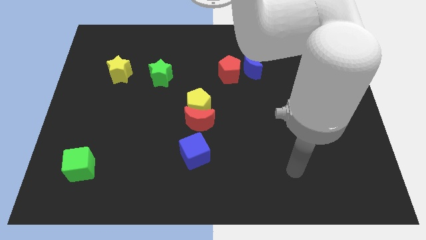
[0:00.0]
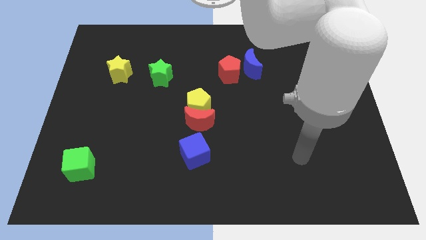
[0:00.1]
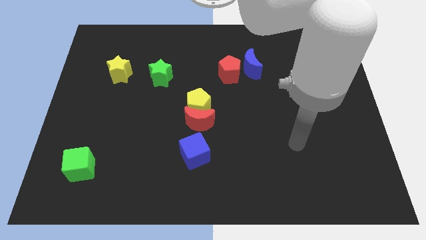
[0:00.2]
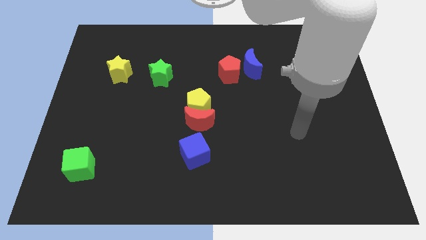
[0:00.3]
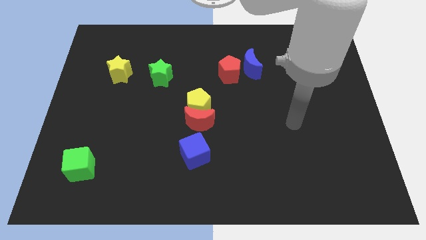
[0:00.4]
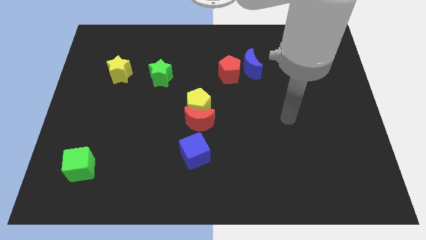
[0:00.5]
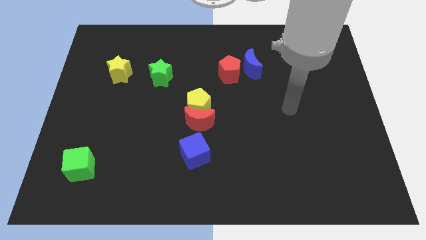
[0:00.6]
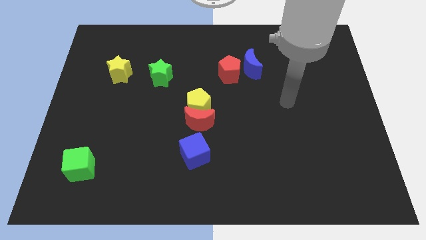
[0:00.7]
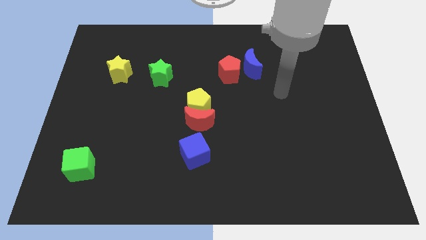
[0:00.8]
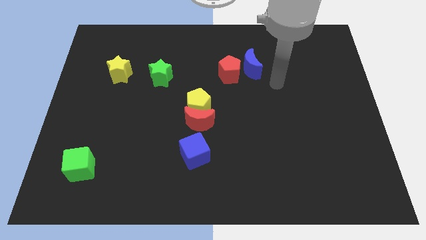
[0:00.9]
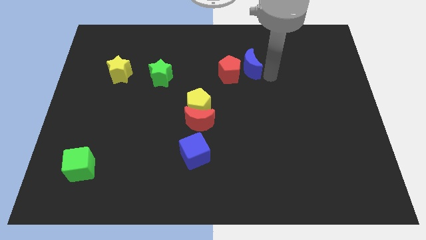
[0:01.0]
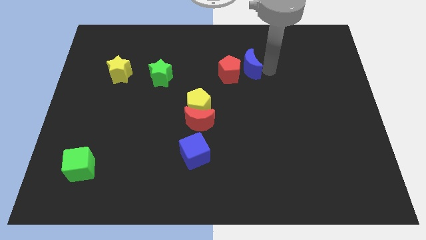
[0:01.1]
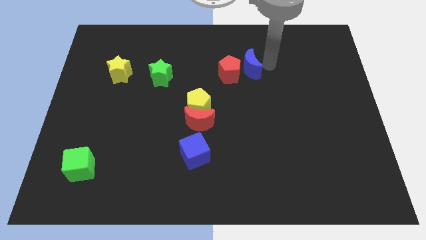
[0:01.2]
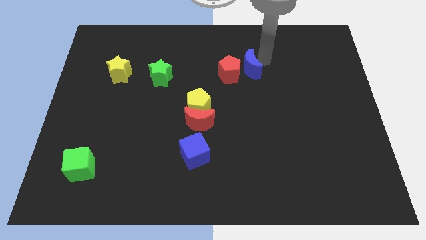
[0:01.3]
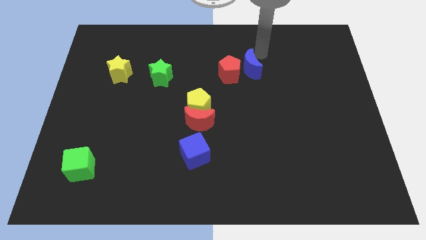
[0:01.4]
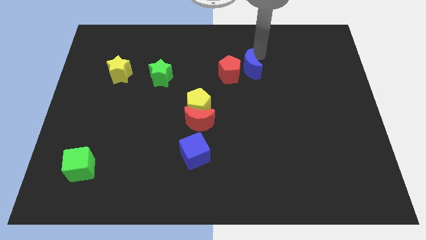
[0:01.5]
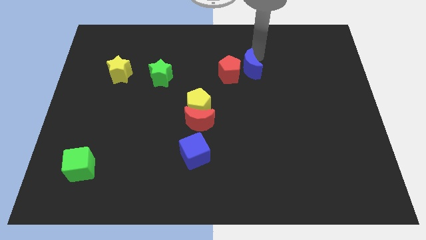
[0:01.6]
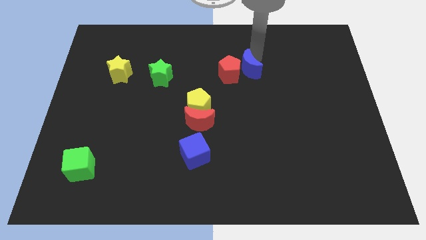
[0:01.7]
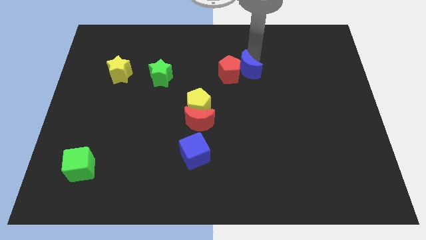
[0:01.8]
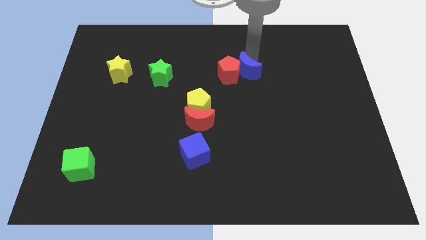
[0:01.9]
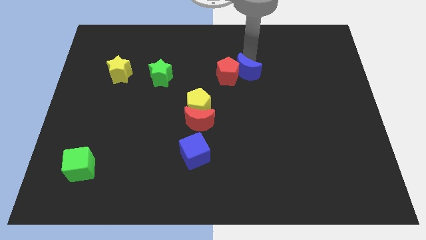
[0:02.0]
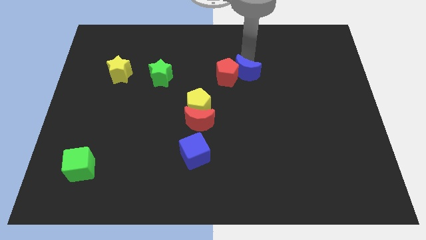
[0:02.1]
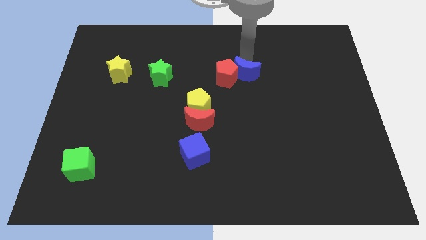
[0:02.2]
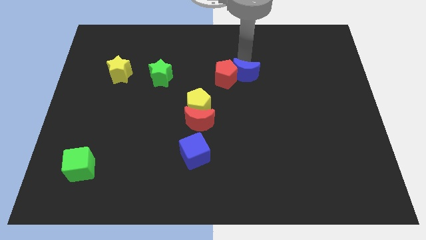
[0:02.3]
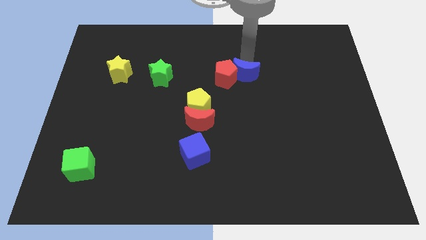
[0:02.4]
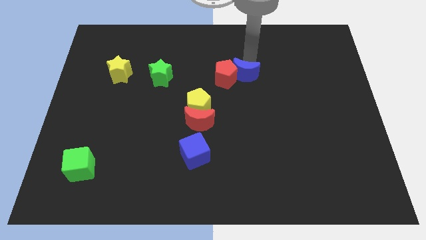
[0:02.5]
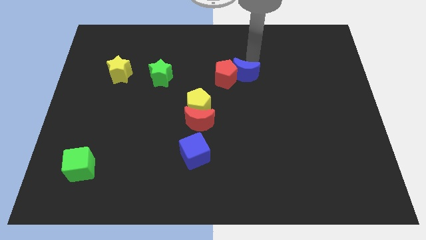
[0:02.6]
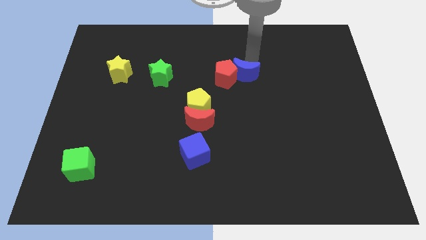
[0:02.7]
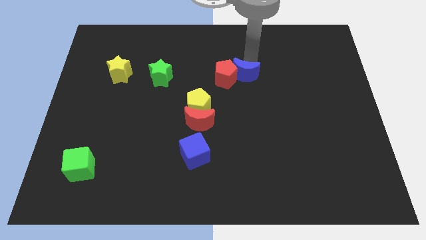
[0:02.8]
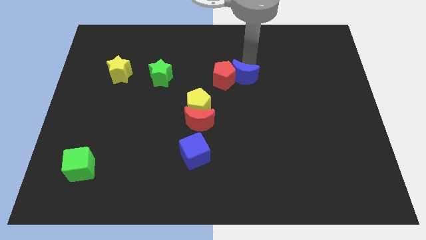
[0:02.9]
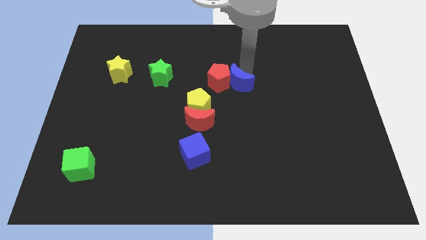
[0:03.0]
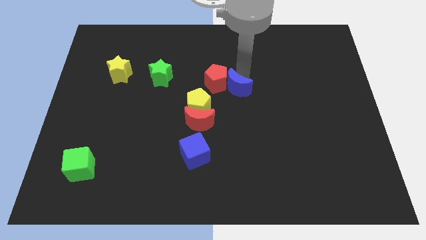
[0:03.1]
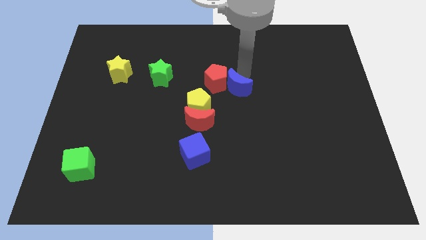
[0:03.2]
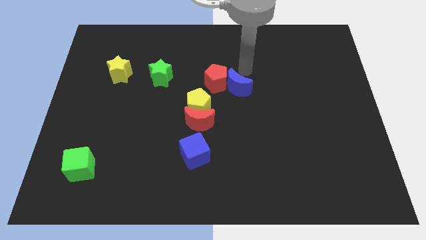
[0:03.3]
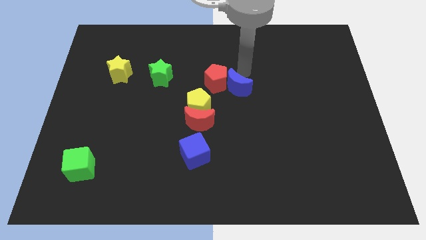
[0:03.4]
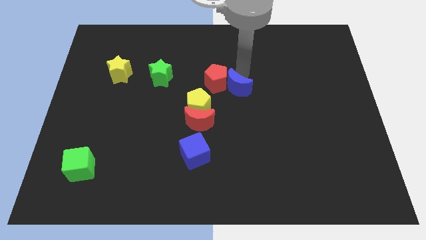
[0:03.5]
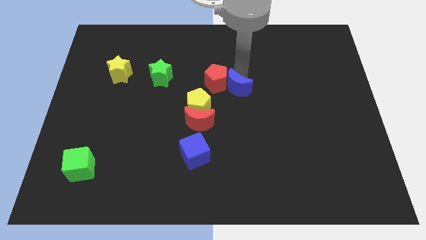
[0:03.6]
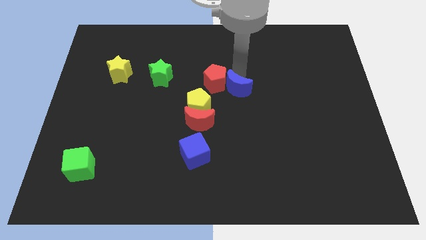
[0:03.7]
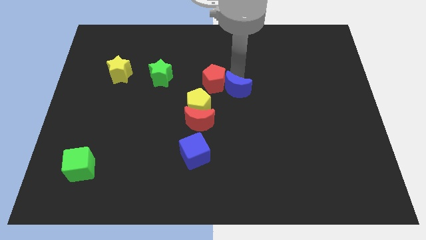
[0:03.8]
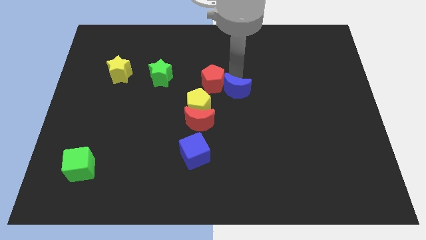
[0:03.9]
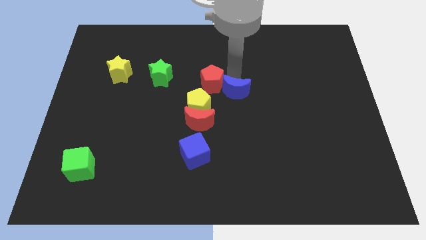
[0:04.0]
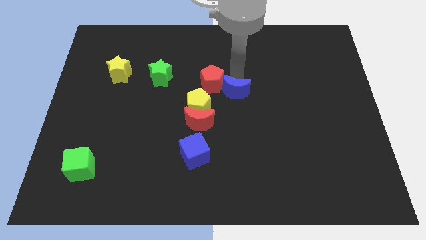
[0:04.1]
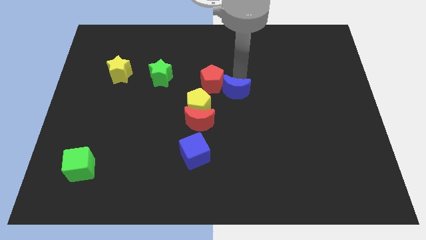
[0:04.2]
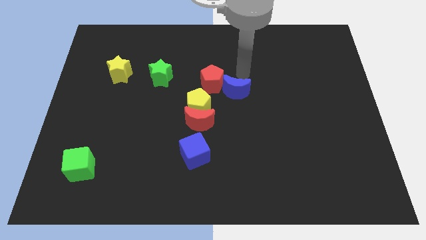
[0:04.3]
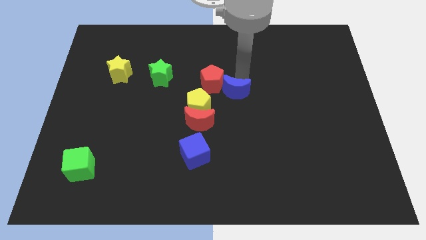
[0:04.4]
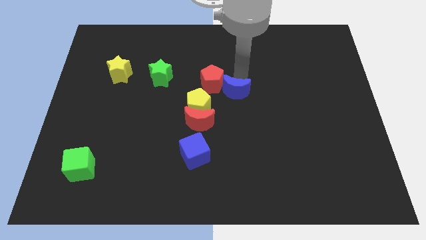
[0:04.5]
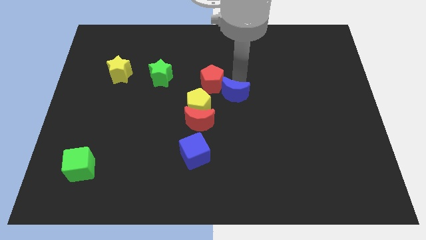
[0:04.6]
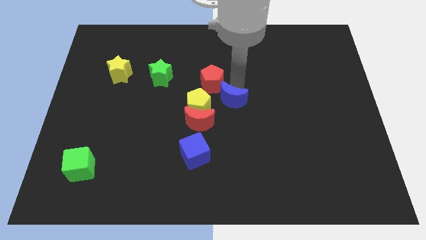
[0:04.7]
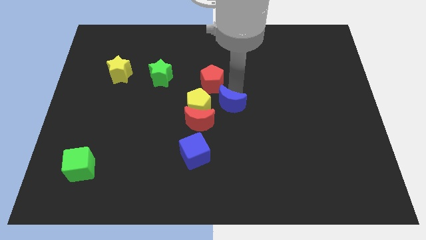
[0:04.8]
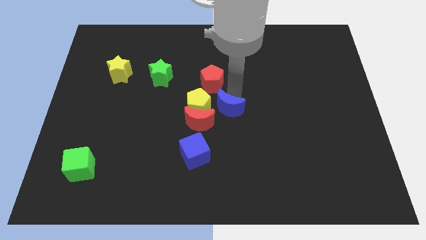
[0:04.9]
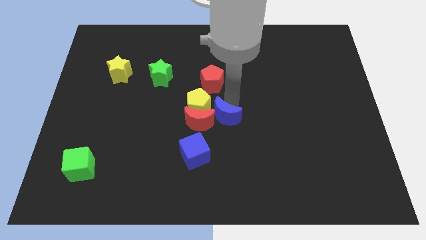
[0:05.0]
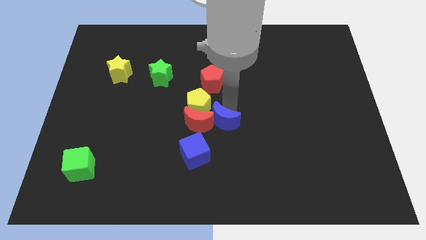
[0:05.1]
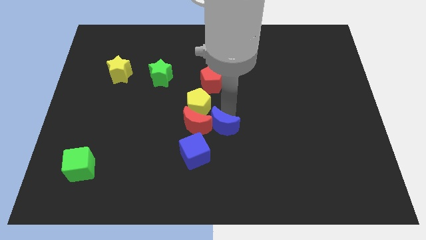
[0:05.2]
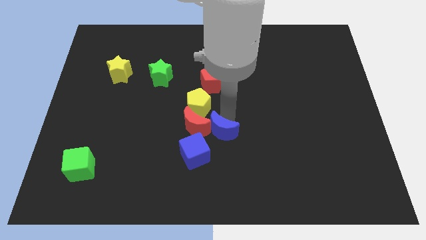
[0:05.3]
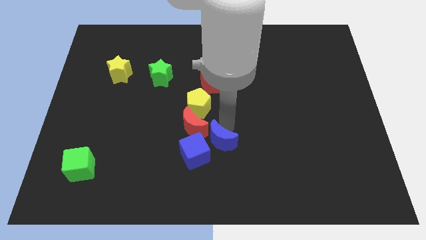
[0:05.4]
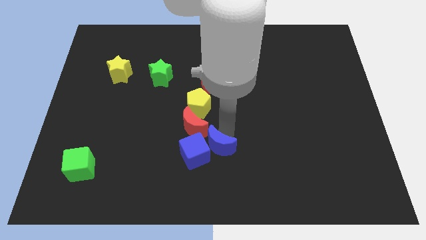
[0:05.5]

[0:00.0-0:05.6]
push the blue moon to the blue cube

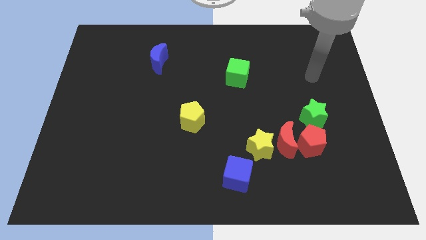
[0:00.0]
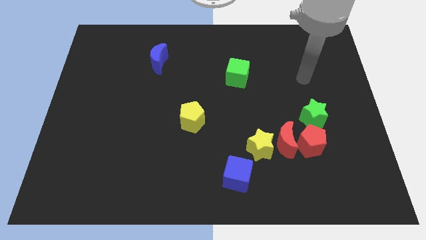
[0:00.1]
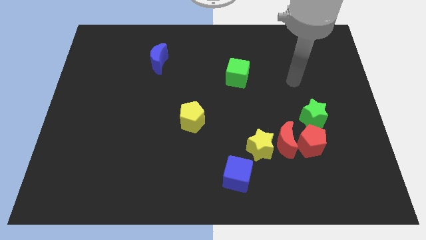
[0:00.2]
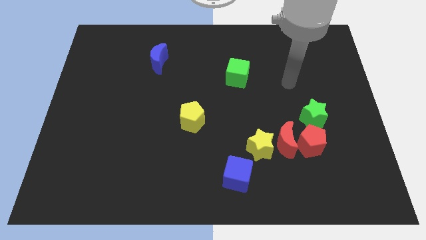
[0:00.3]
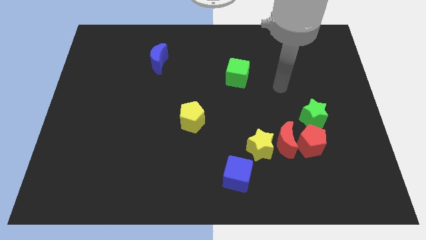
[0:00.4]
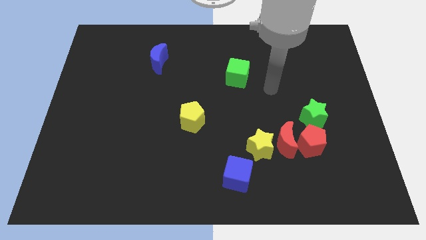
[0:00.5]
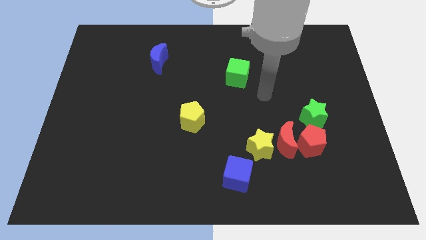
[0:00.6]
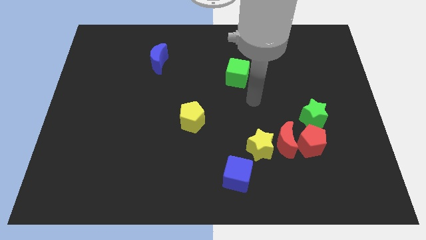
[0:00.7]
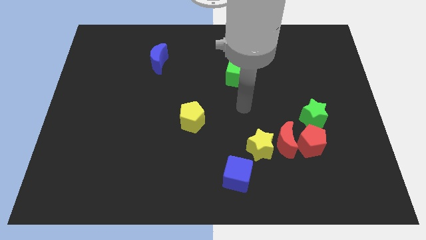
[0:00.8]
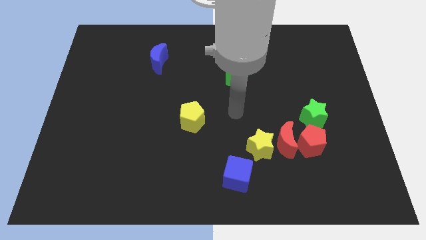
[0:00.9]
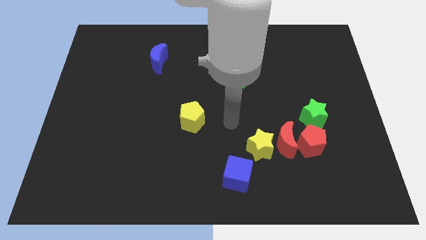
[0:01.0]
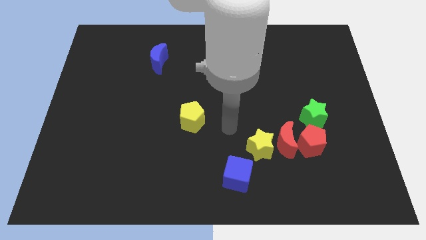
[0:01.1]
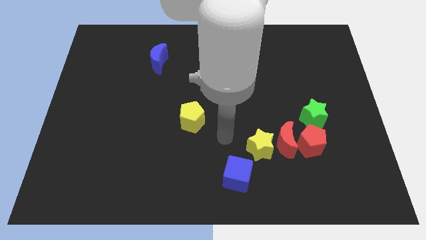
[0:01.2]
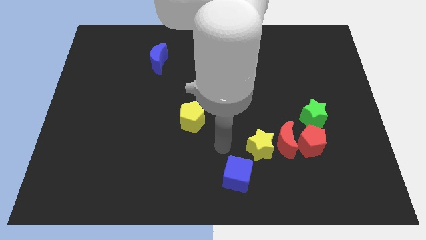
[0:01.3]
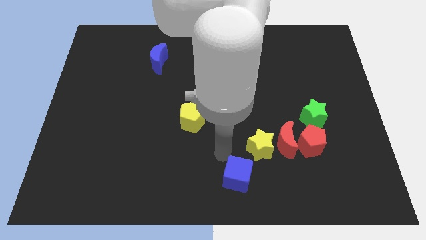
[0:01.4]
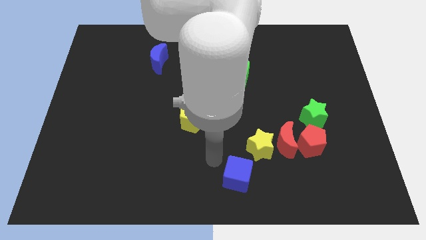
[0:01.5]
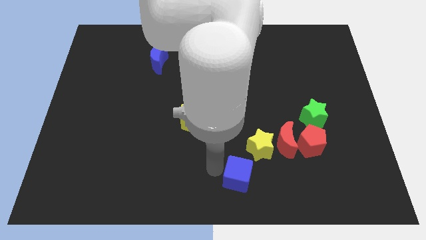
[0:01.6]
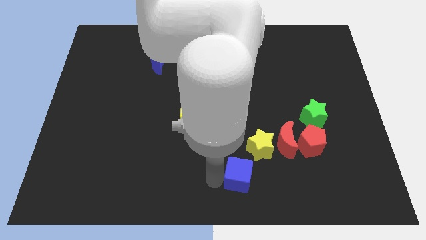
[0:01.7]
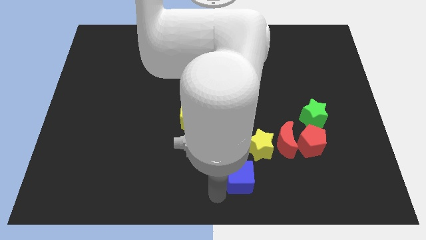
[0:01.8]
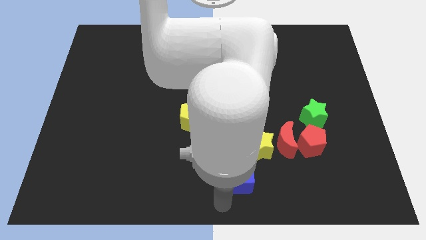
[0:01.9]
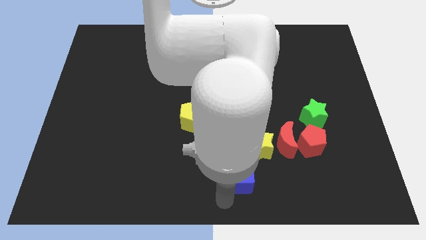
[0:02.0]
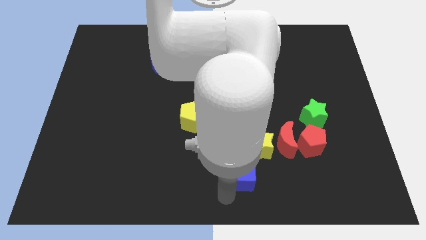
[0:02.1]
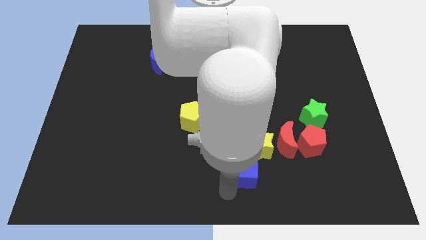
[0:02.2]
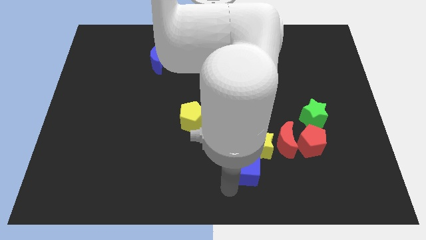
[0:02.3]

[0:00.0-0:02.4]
push the blue cube towards the yellow star

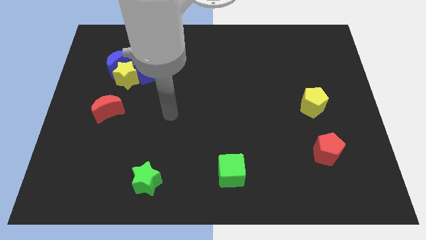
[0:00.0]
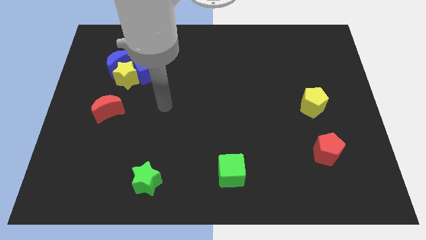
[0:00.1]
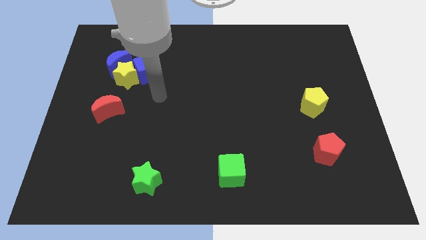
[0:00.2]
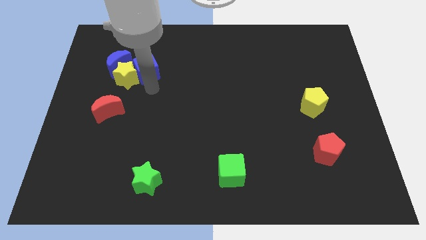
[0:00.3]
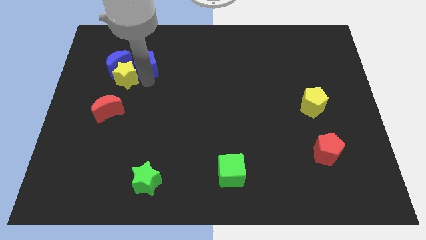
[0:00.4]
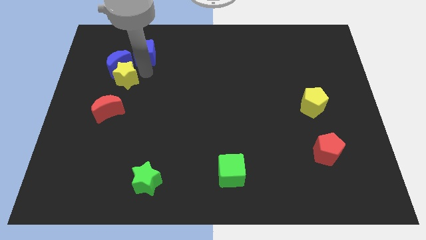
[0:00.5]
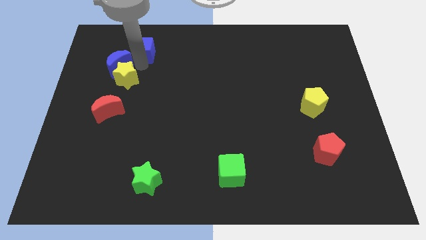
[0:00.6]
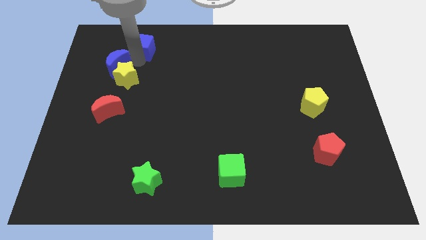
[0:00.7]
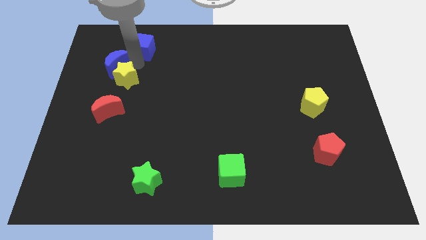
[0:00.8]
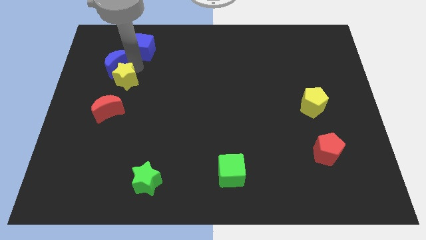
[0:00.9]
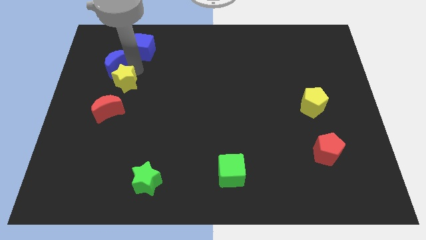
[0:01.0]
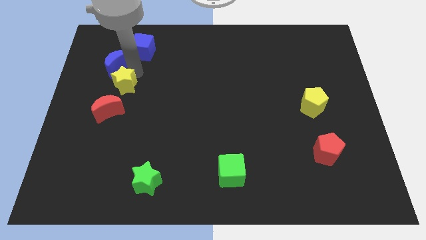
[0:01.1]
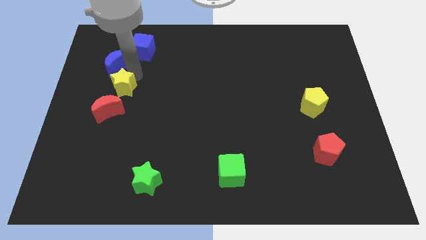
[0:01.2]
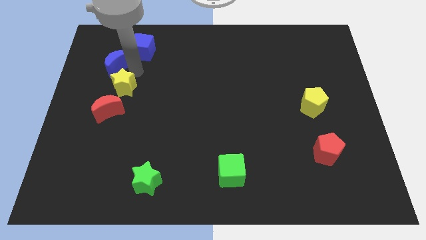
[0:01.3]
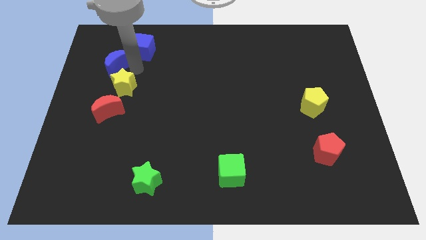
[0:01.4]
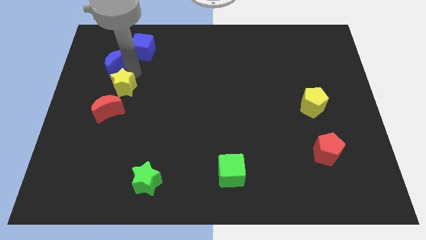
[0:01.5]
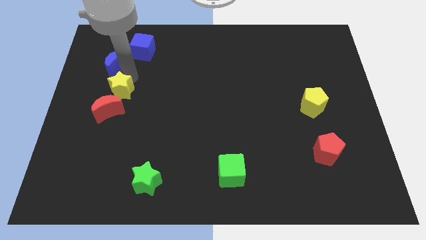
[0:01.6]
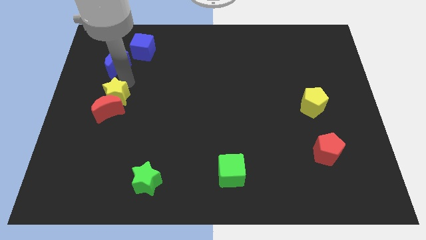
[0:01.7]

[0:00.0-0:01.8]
slide the yellow star next to the red moon
